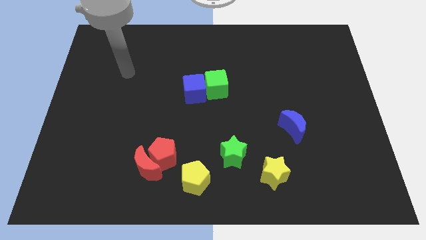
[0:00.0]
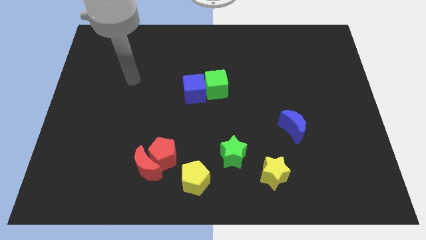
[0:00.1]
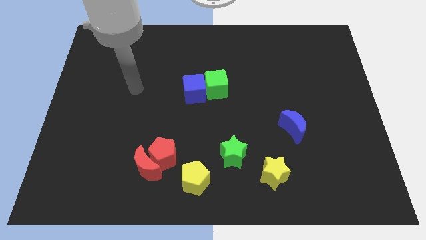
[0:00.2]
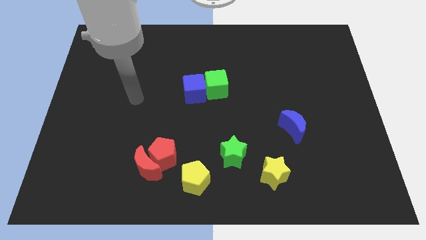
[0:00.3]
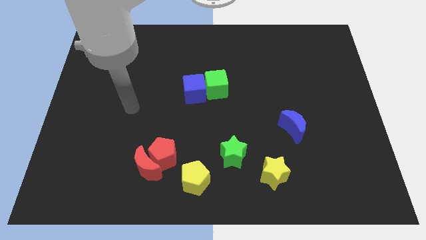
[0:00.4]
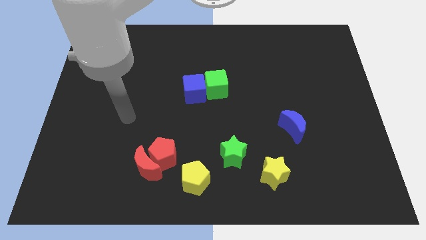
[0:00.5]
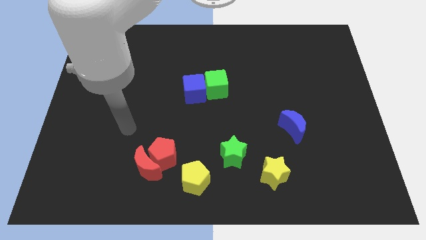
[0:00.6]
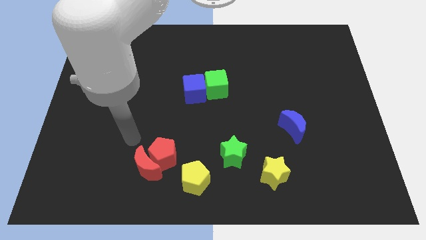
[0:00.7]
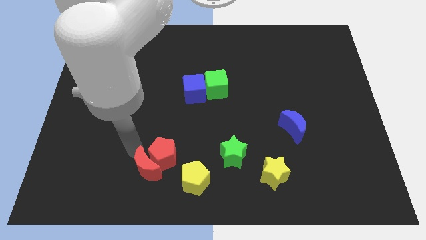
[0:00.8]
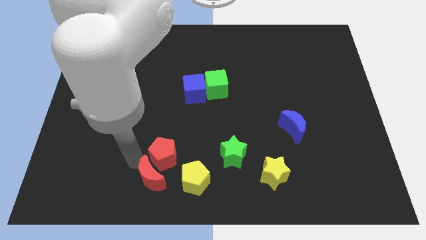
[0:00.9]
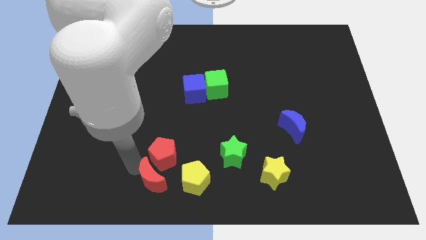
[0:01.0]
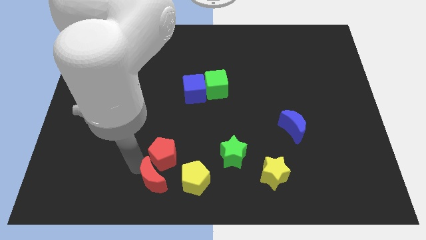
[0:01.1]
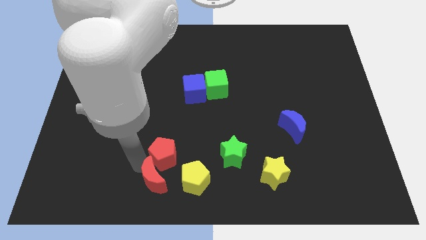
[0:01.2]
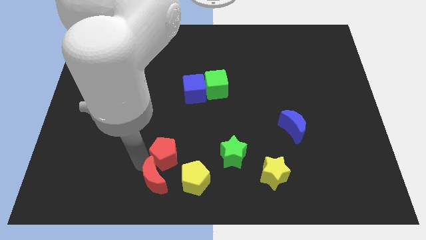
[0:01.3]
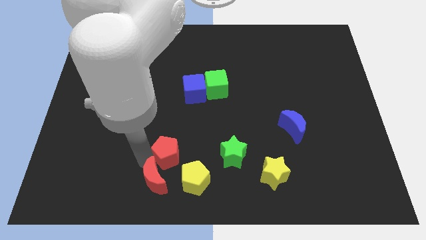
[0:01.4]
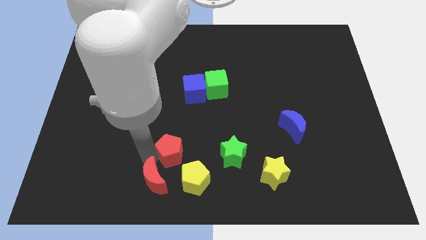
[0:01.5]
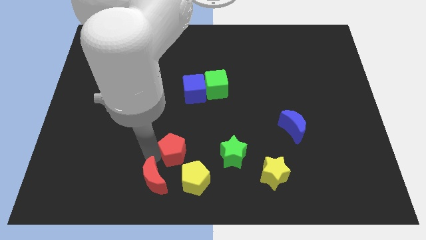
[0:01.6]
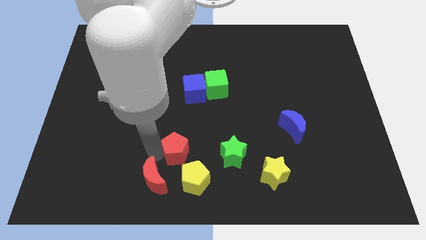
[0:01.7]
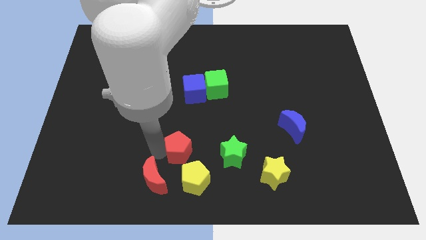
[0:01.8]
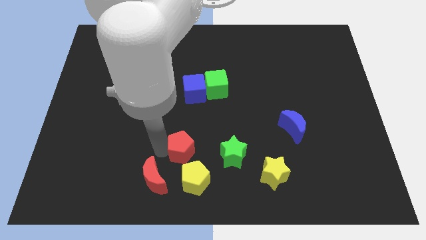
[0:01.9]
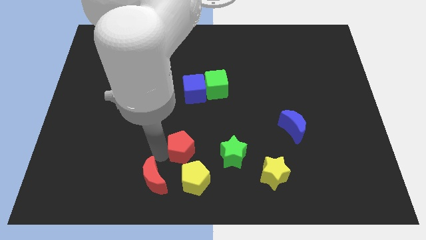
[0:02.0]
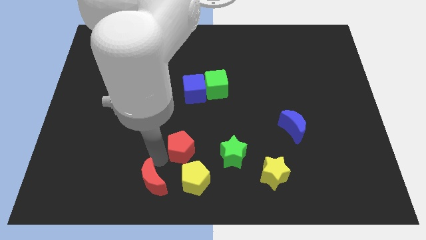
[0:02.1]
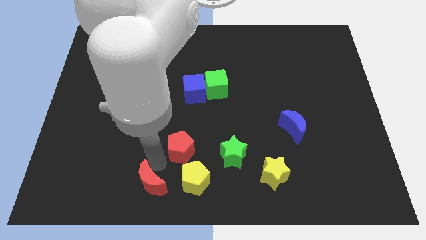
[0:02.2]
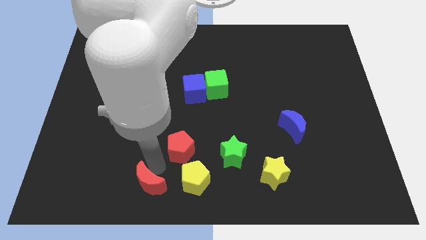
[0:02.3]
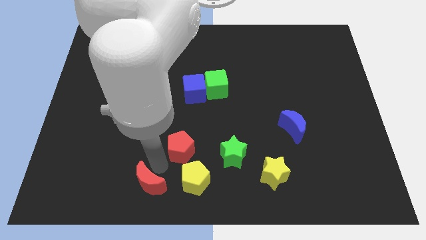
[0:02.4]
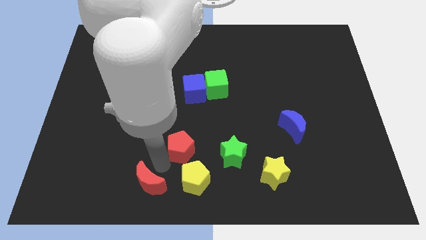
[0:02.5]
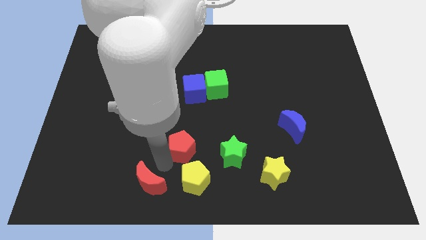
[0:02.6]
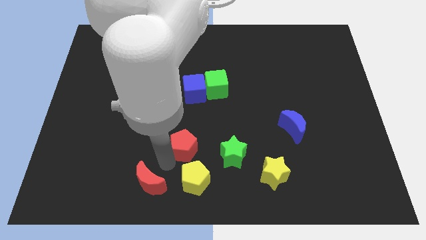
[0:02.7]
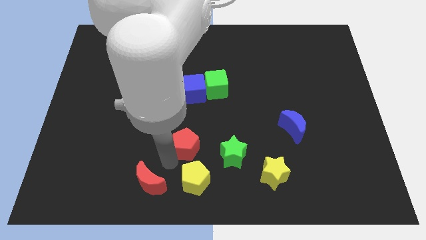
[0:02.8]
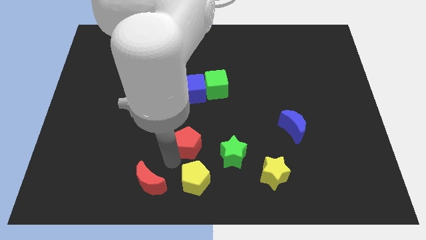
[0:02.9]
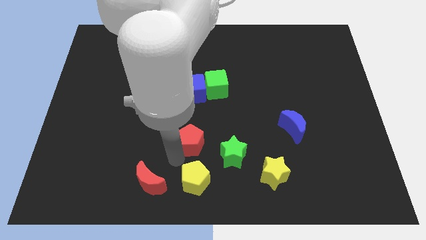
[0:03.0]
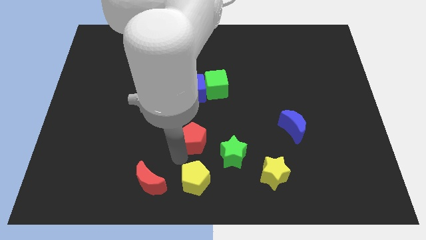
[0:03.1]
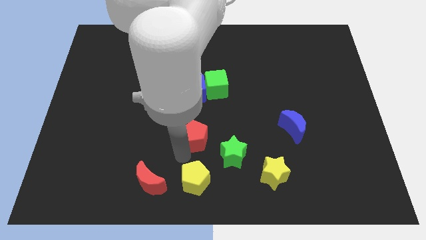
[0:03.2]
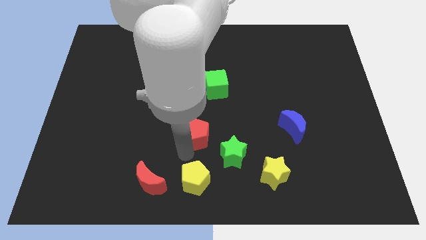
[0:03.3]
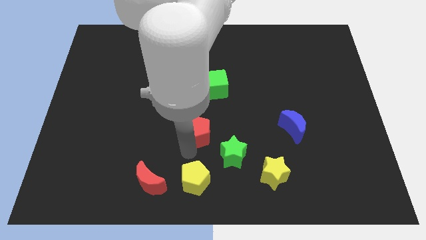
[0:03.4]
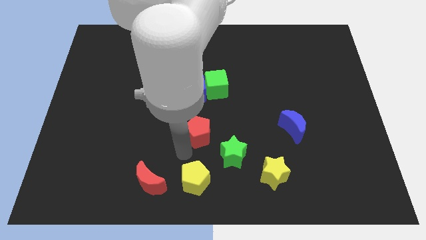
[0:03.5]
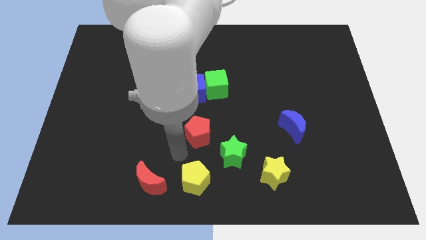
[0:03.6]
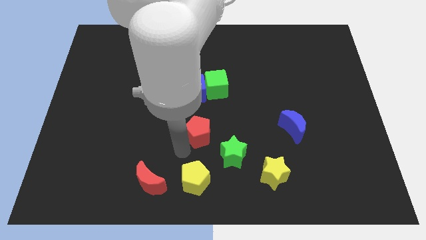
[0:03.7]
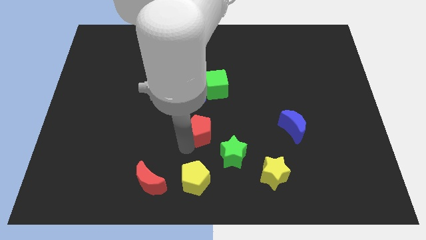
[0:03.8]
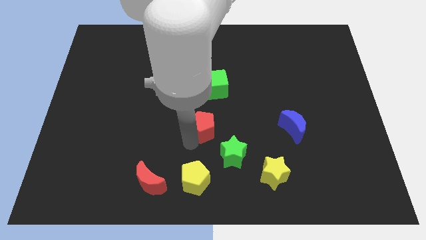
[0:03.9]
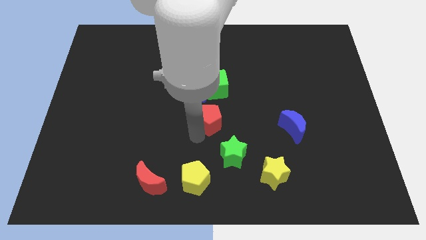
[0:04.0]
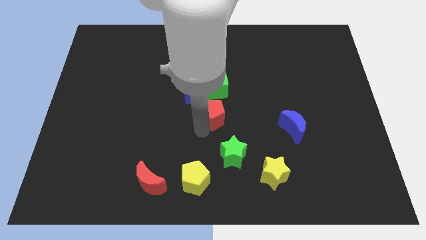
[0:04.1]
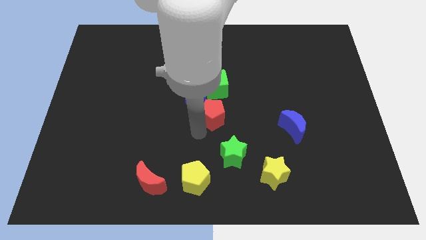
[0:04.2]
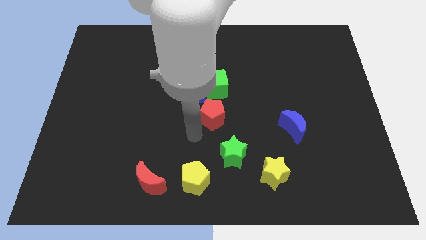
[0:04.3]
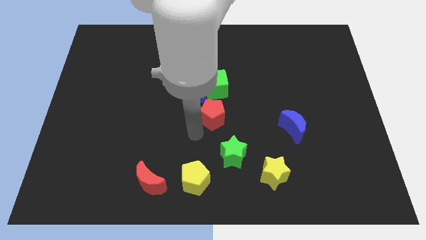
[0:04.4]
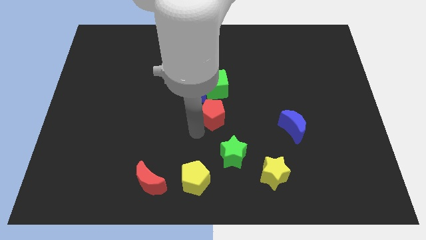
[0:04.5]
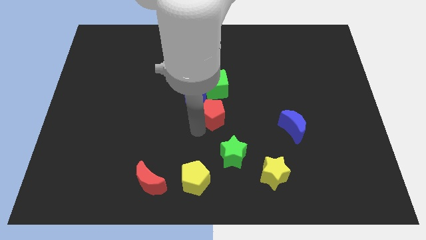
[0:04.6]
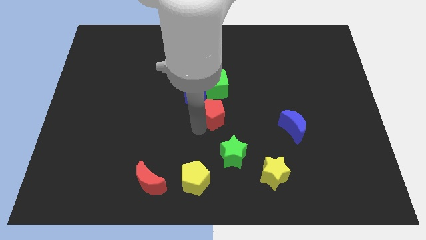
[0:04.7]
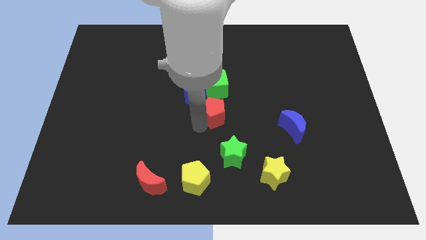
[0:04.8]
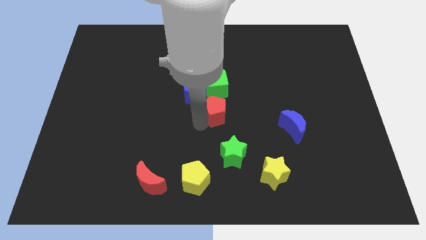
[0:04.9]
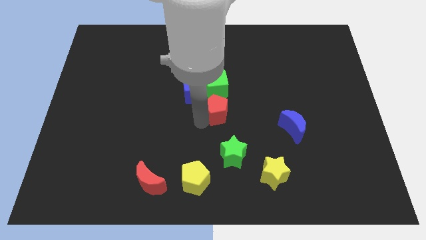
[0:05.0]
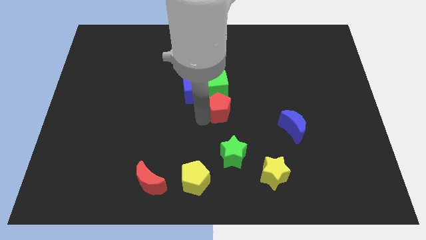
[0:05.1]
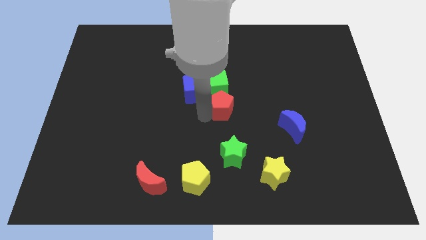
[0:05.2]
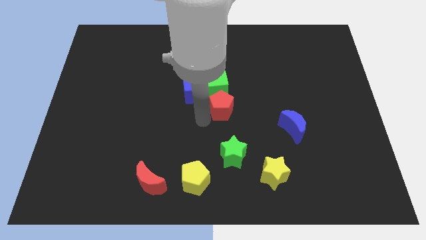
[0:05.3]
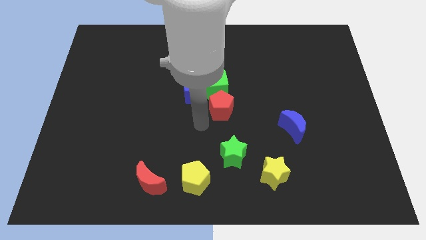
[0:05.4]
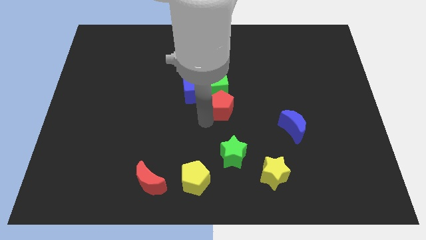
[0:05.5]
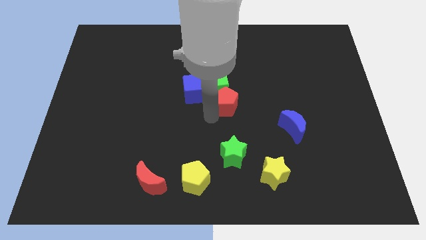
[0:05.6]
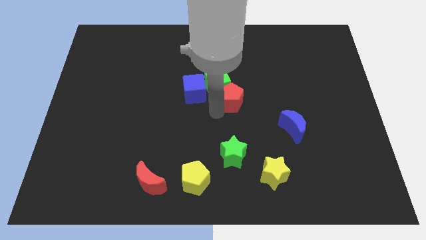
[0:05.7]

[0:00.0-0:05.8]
slide the red pentagon upwards and right diagonally

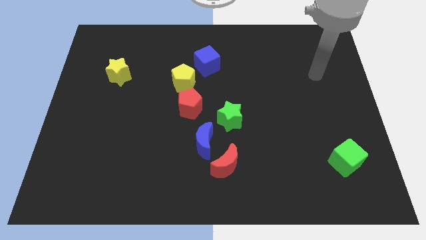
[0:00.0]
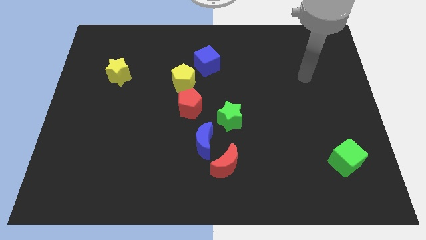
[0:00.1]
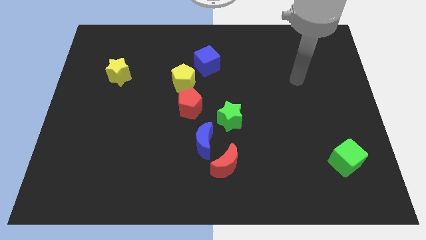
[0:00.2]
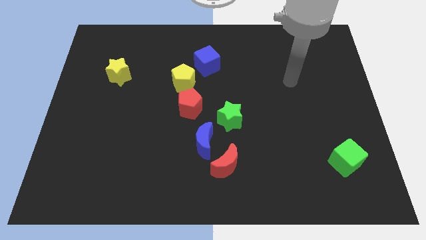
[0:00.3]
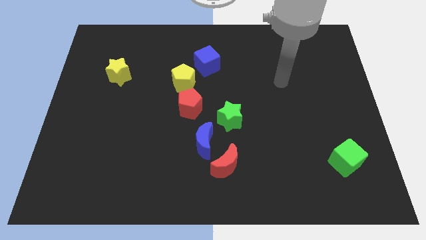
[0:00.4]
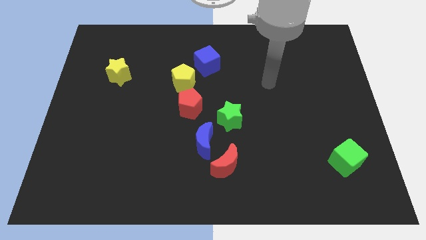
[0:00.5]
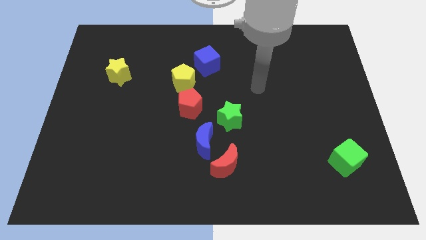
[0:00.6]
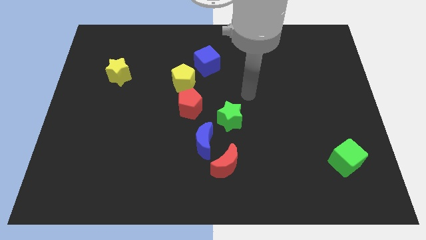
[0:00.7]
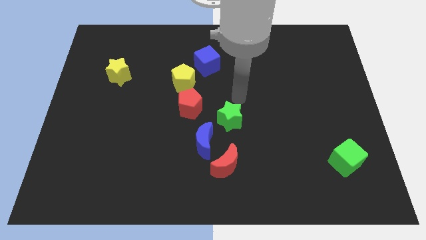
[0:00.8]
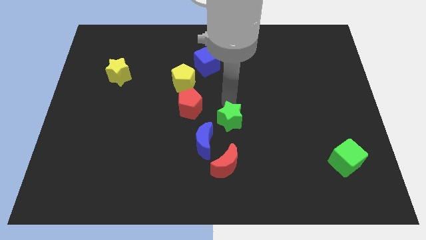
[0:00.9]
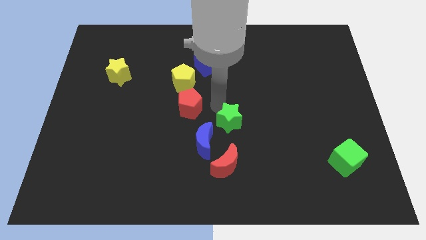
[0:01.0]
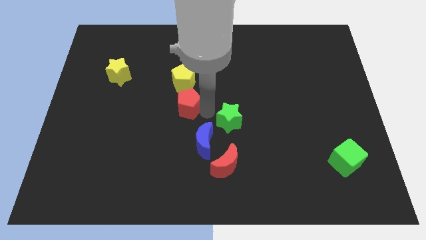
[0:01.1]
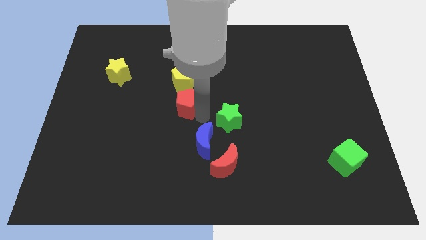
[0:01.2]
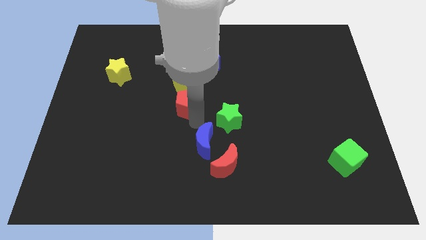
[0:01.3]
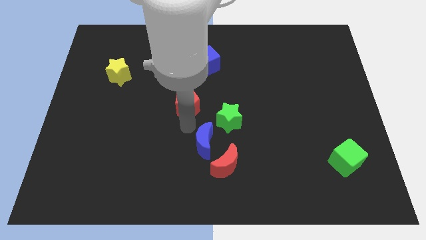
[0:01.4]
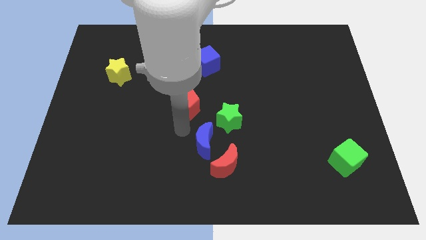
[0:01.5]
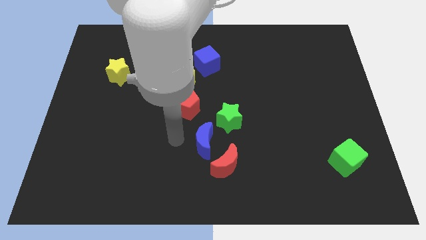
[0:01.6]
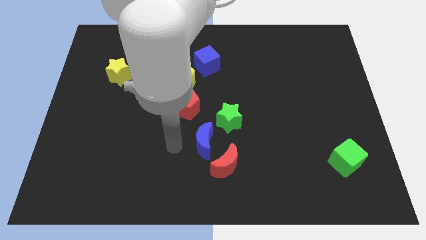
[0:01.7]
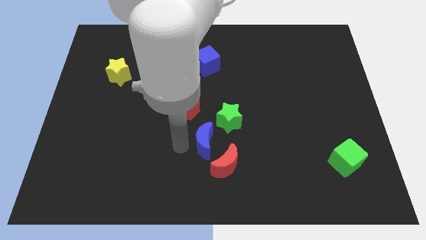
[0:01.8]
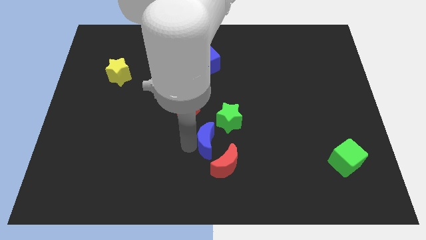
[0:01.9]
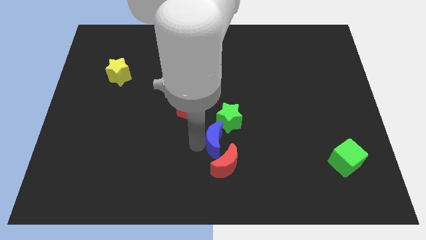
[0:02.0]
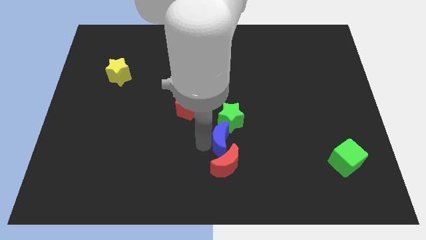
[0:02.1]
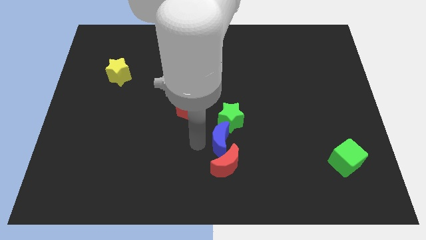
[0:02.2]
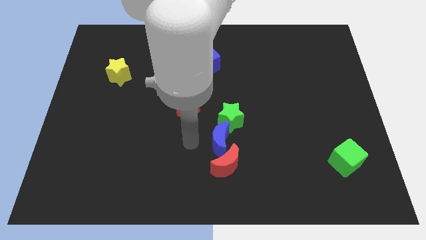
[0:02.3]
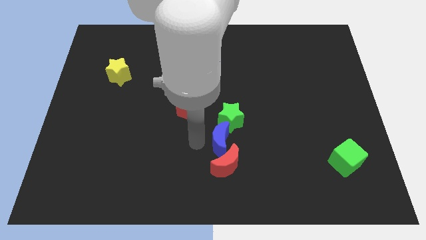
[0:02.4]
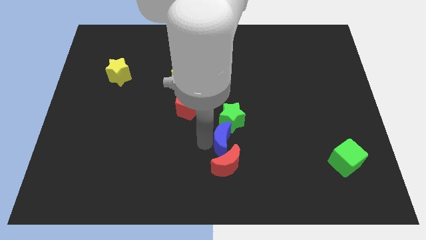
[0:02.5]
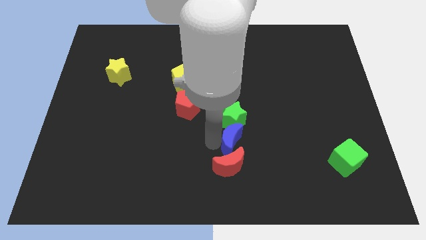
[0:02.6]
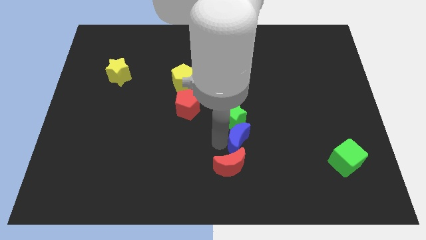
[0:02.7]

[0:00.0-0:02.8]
push the blue moon a little bit right
